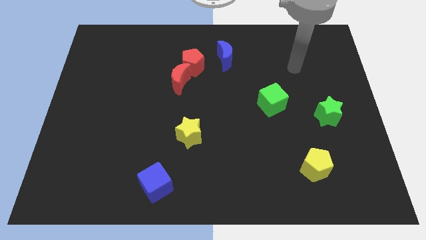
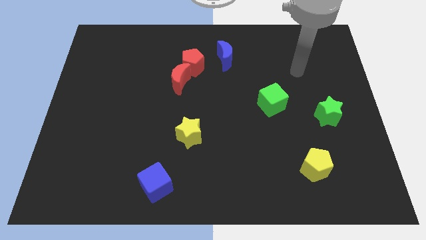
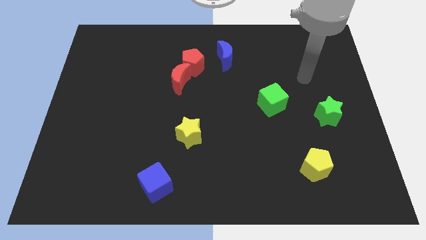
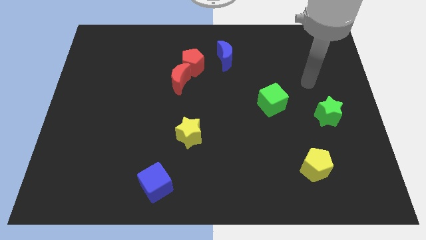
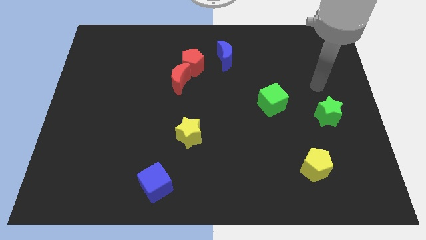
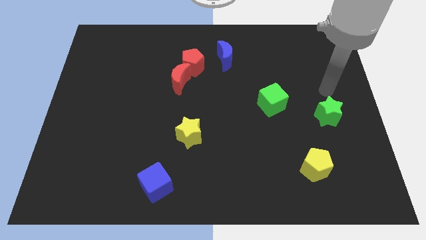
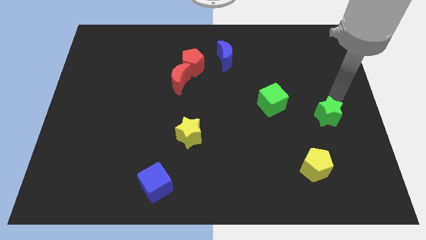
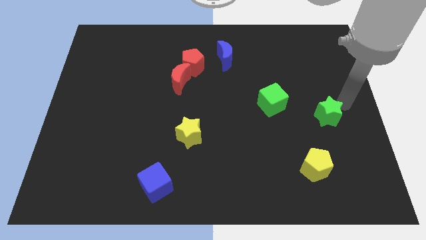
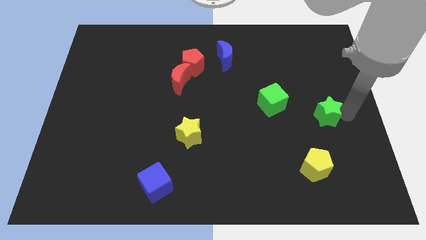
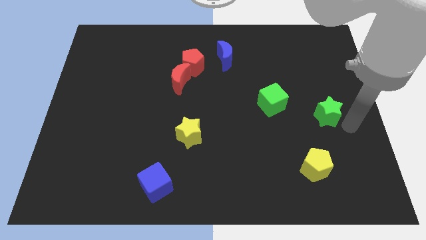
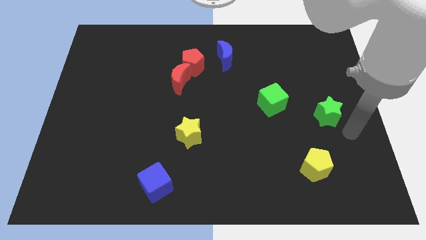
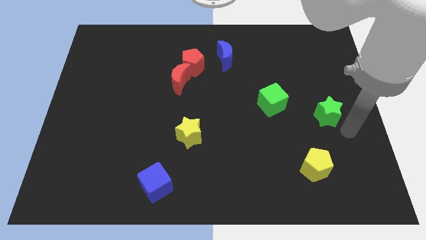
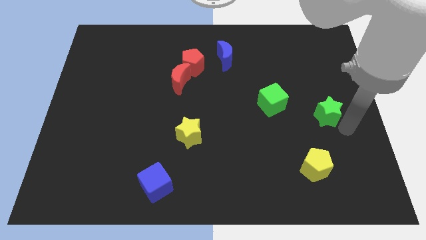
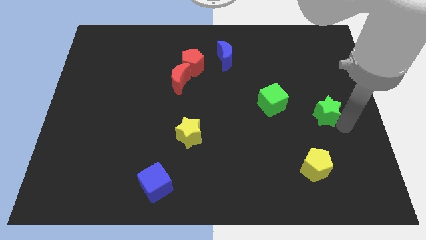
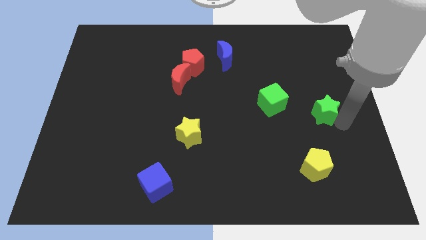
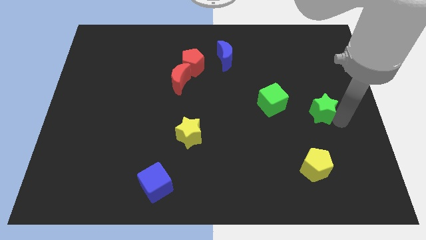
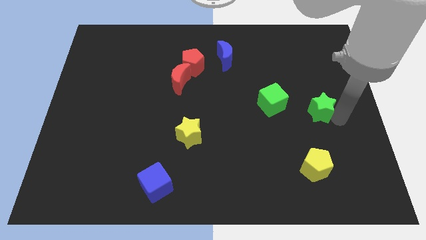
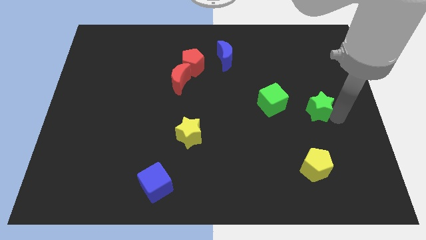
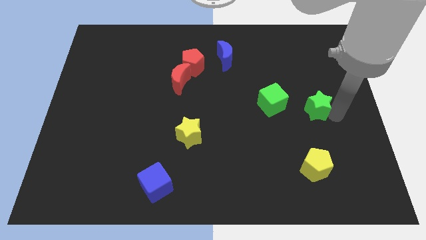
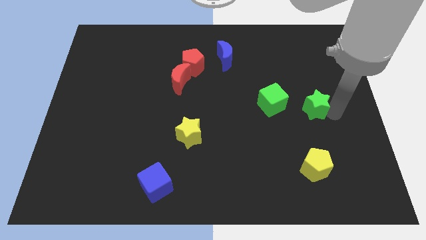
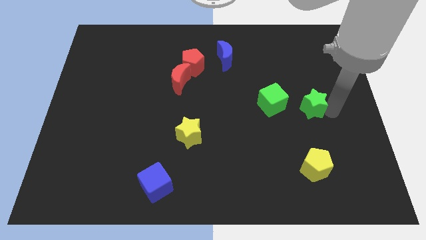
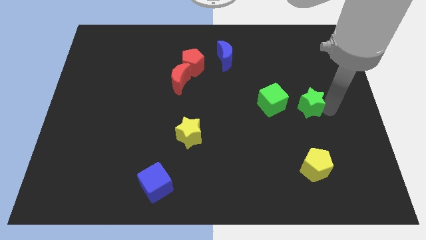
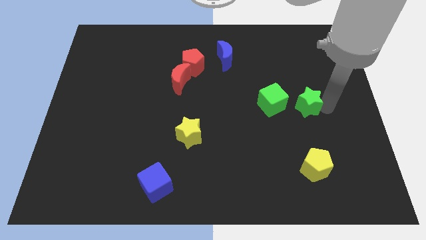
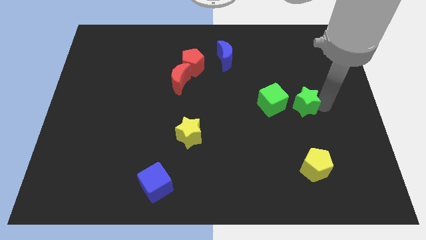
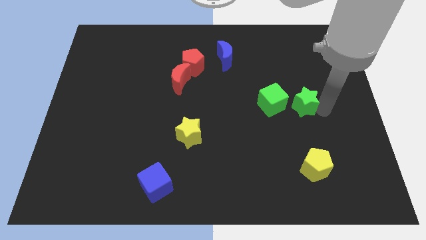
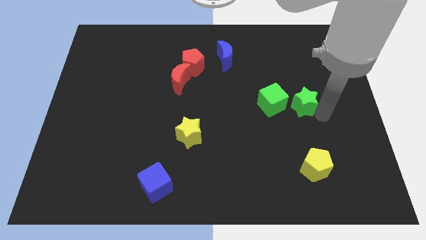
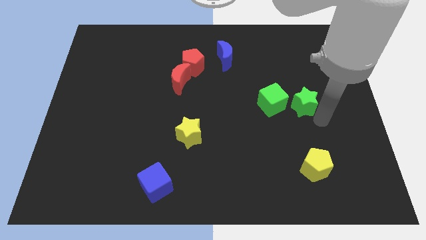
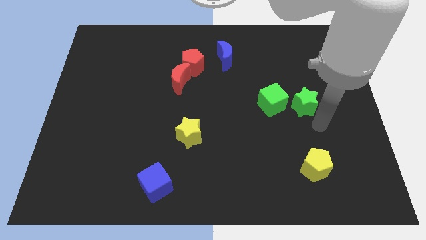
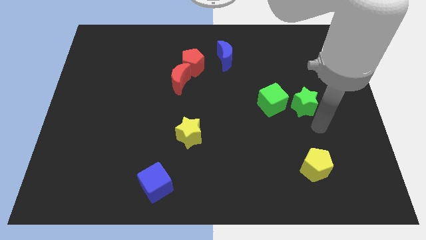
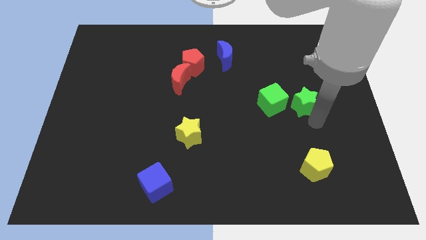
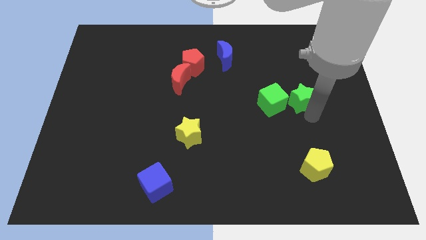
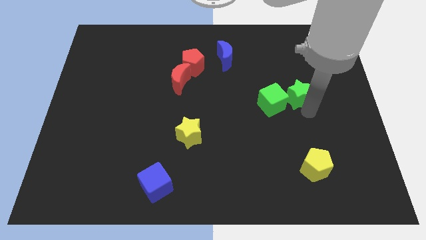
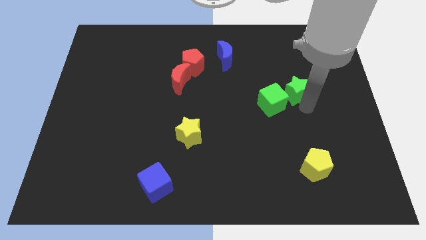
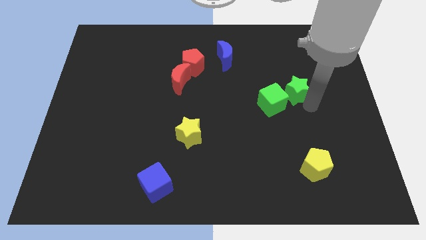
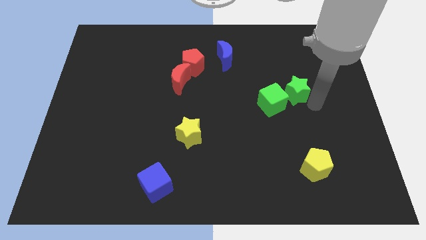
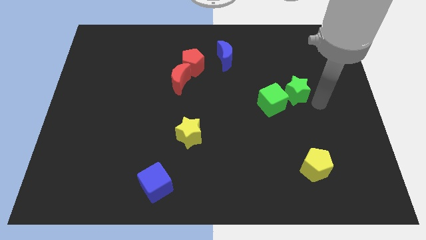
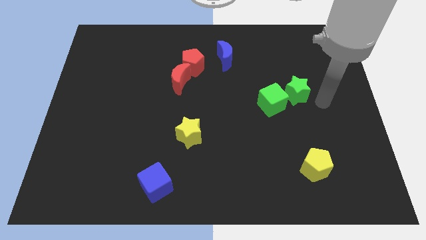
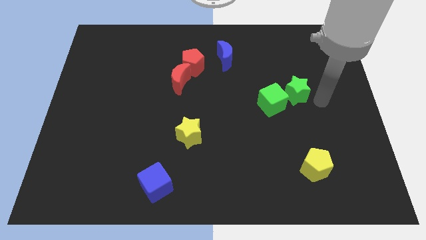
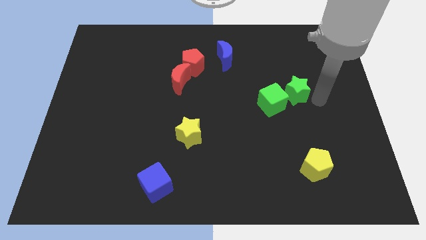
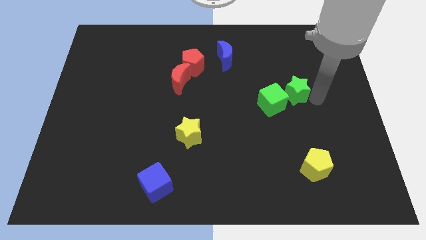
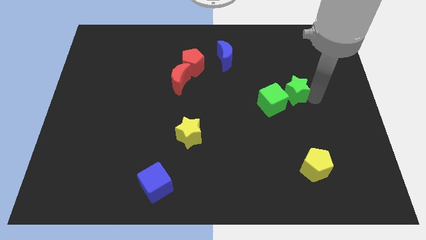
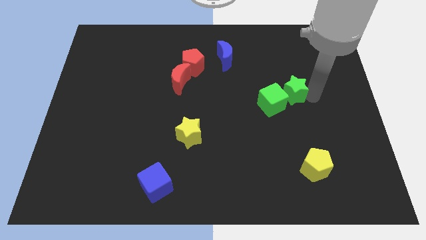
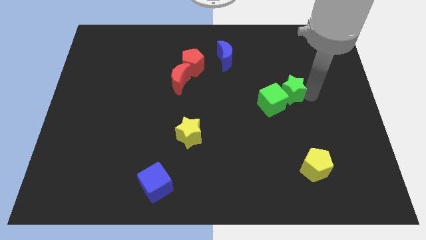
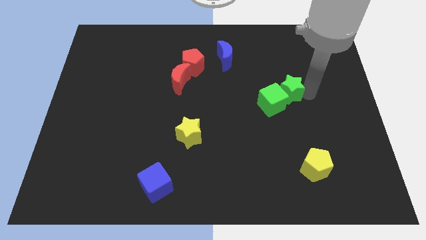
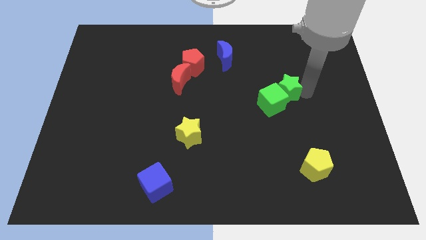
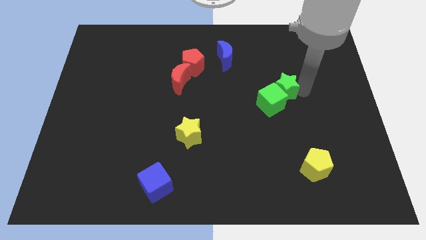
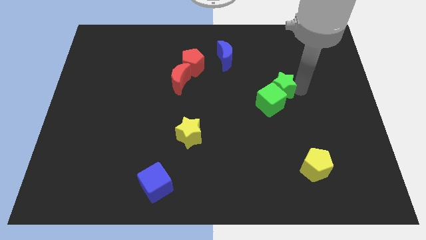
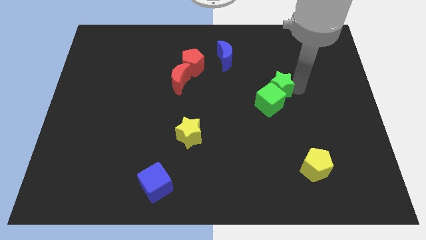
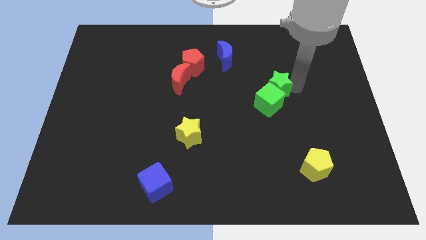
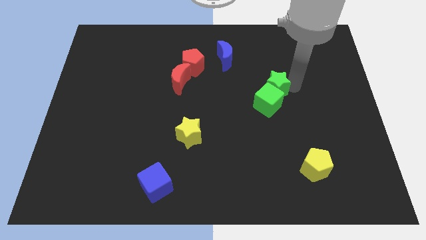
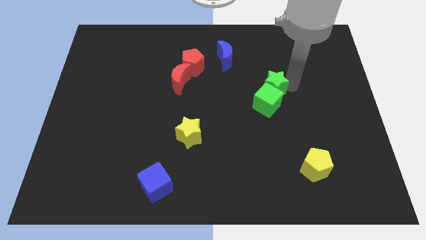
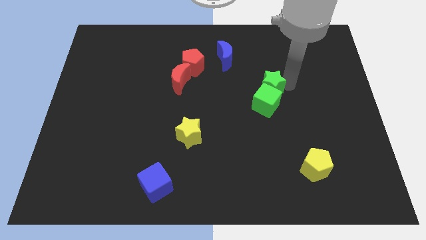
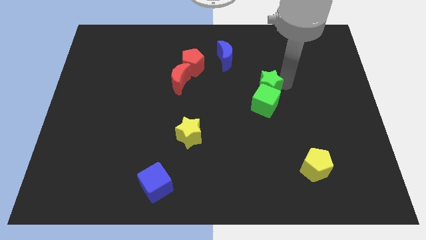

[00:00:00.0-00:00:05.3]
push the green star to the top left side of the green cube

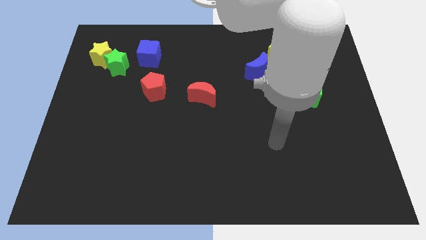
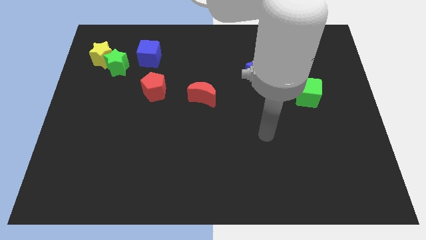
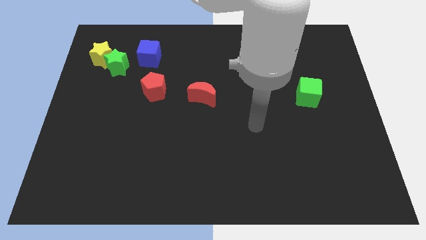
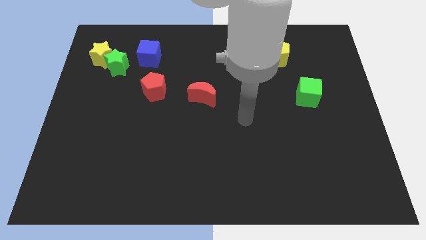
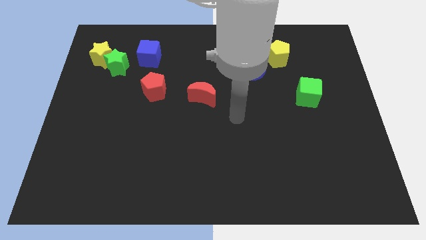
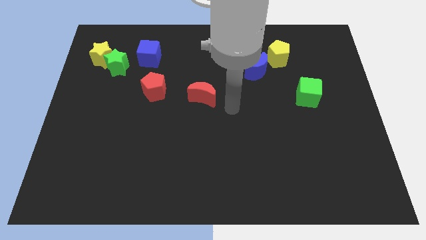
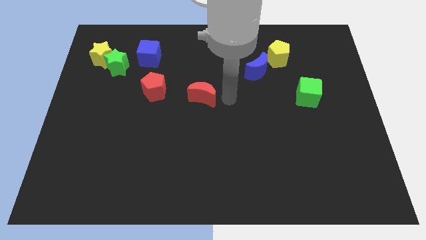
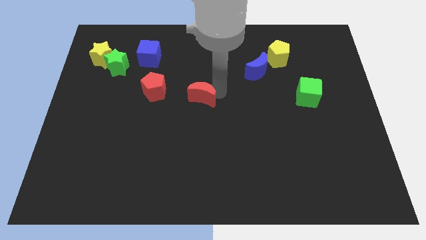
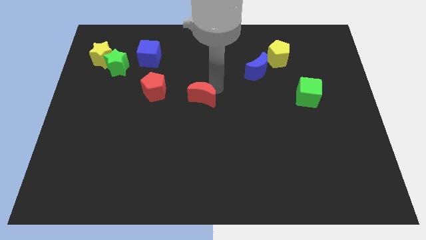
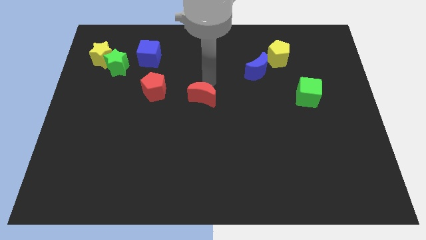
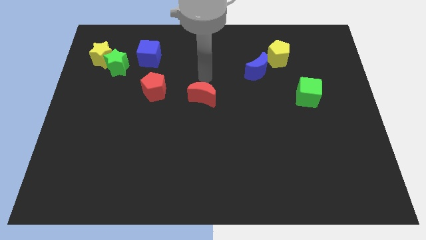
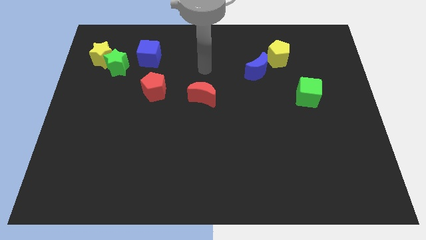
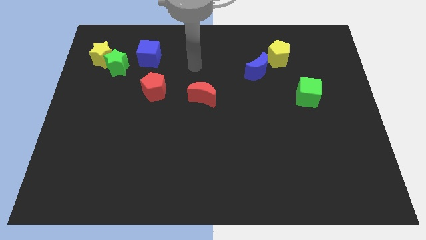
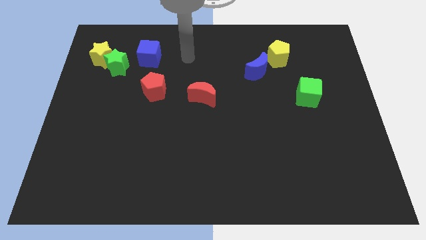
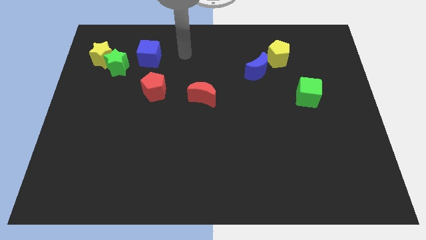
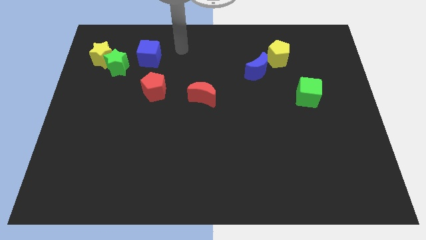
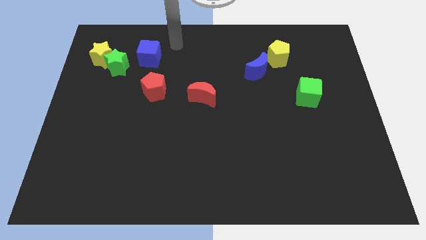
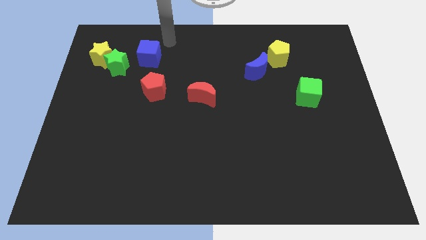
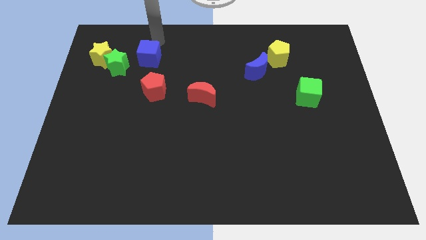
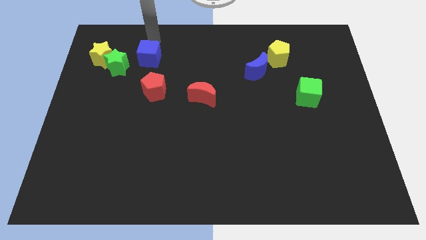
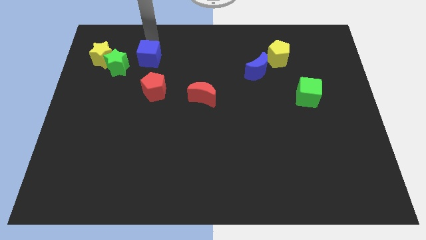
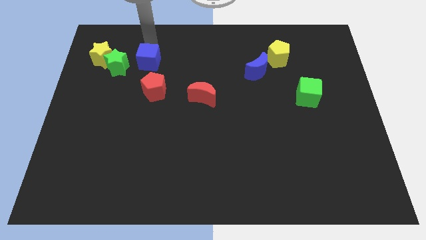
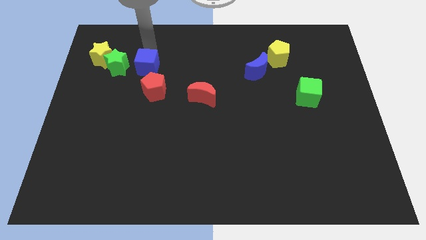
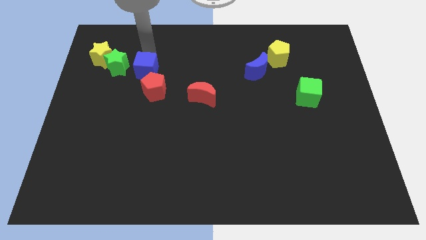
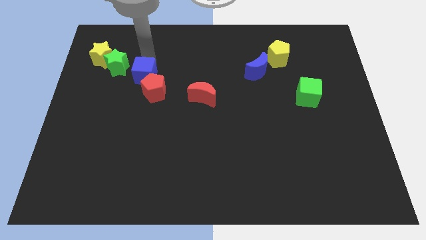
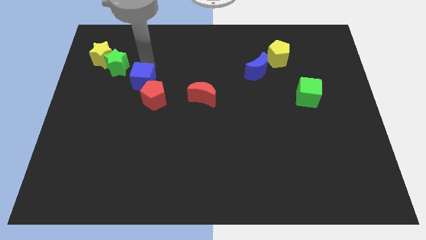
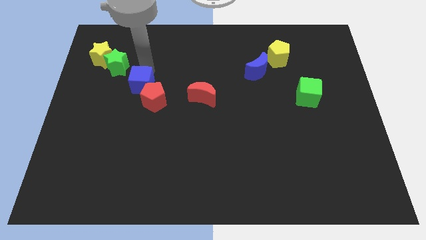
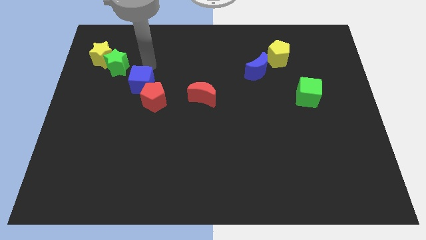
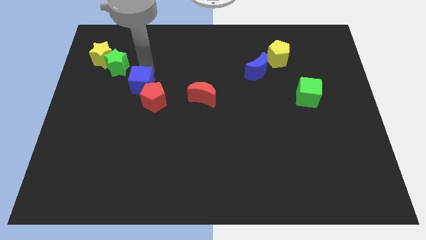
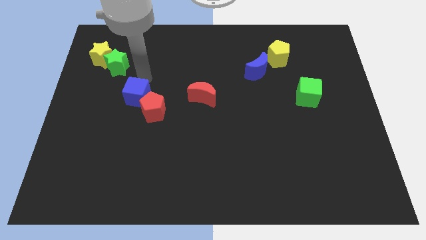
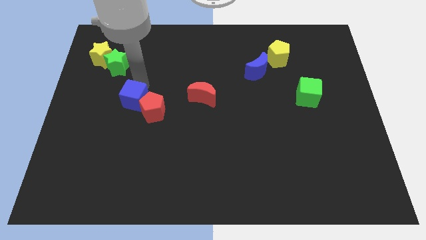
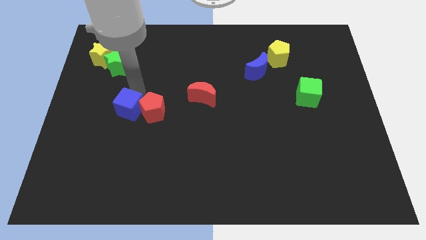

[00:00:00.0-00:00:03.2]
push the blue cube diagonally down and to the left of the red pentagon
